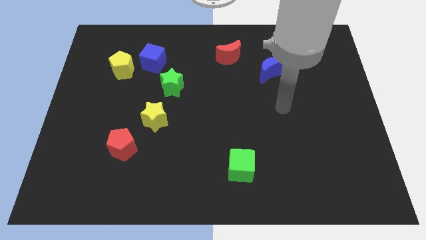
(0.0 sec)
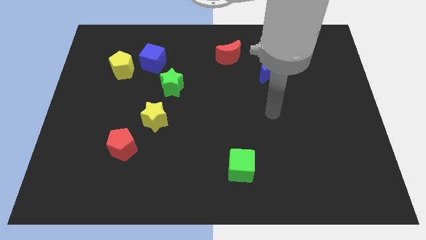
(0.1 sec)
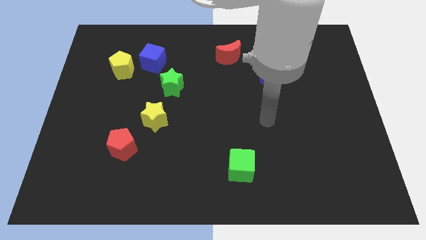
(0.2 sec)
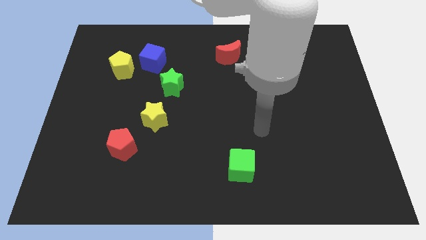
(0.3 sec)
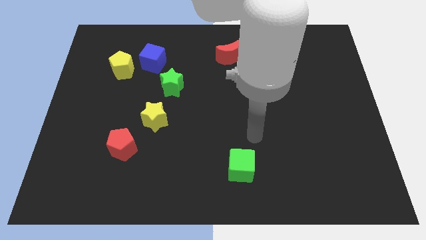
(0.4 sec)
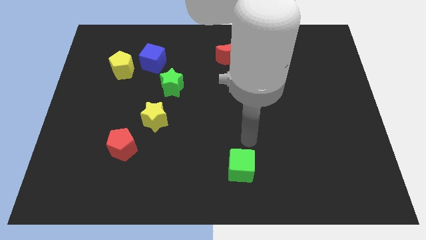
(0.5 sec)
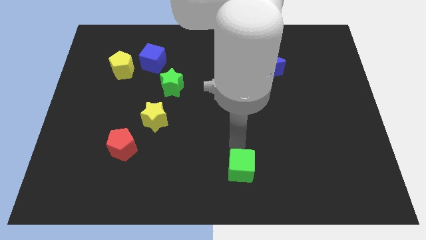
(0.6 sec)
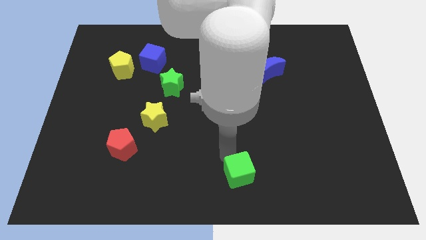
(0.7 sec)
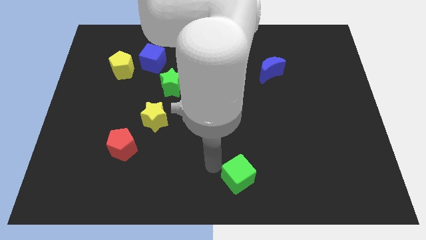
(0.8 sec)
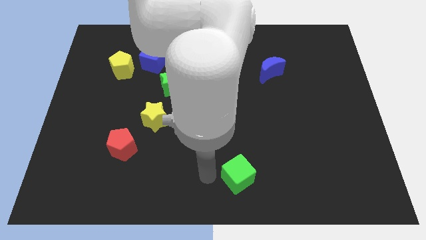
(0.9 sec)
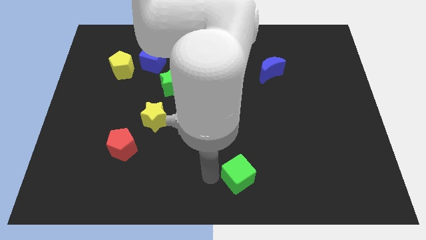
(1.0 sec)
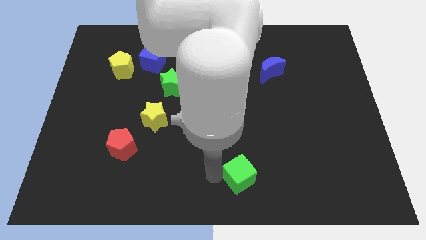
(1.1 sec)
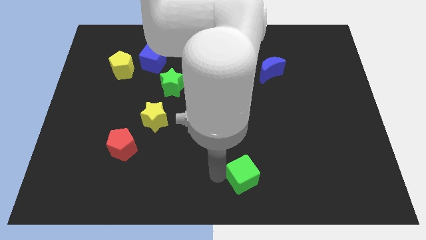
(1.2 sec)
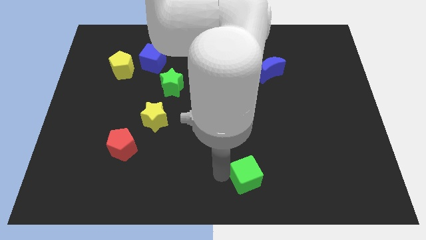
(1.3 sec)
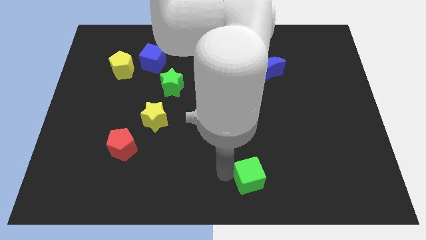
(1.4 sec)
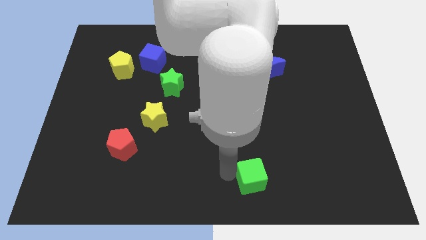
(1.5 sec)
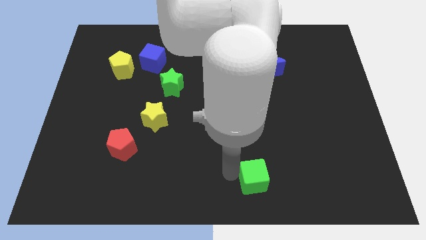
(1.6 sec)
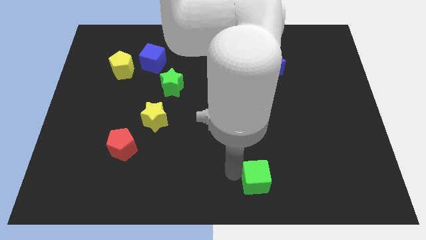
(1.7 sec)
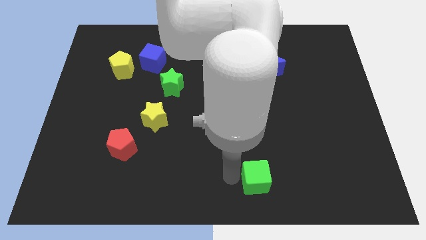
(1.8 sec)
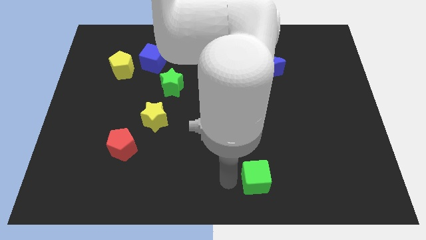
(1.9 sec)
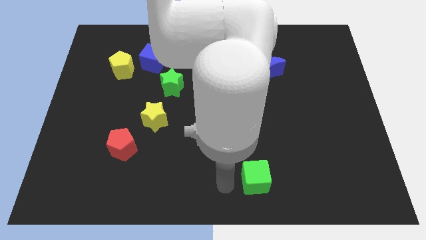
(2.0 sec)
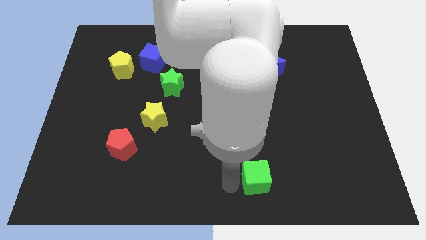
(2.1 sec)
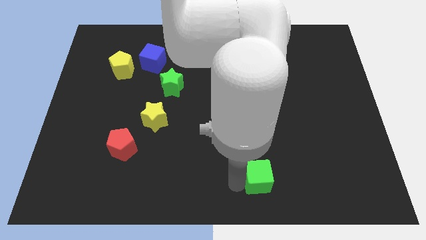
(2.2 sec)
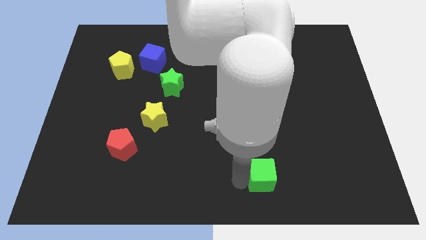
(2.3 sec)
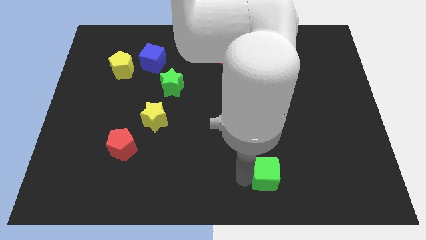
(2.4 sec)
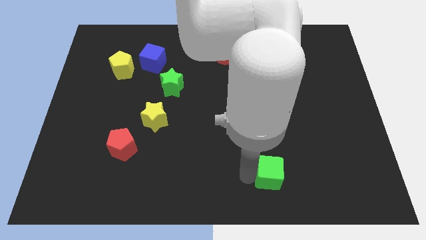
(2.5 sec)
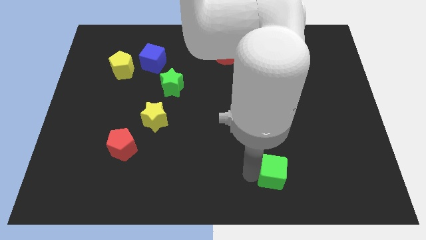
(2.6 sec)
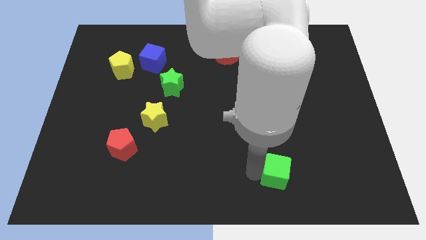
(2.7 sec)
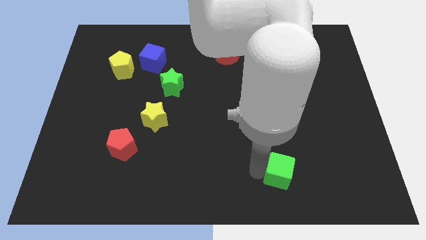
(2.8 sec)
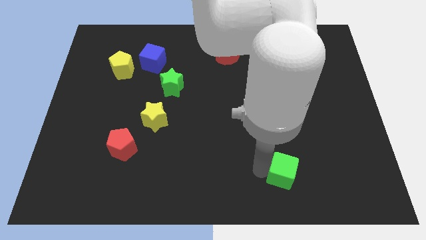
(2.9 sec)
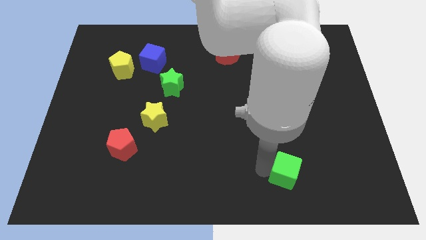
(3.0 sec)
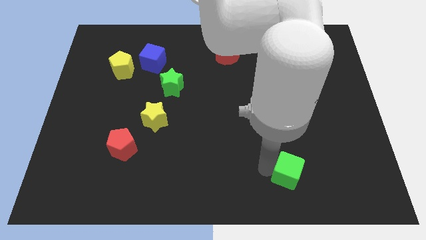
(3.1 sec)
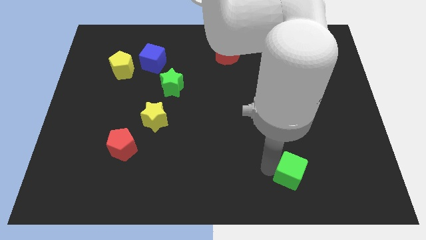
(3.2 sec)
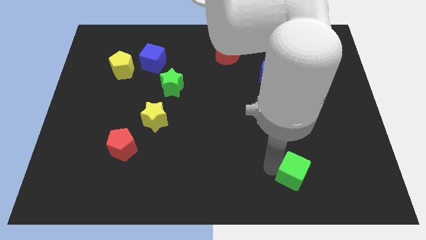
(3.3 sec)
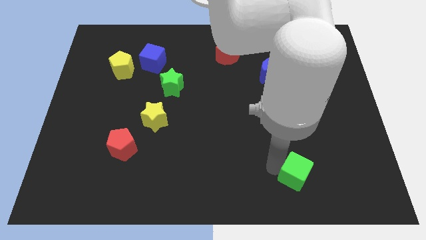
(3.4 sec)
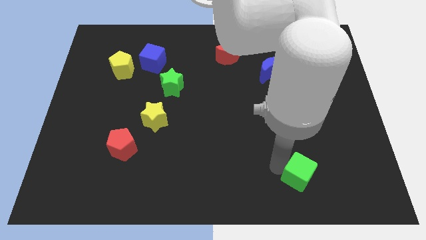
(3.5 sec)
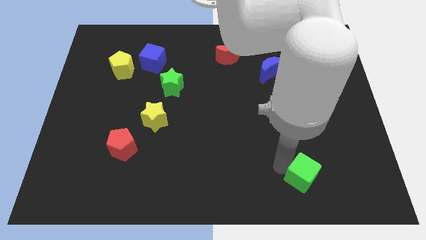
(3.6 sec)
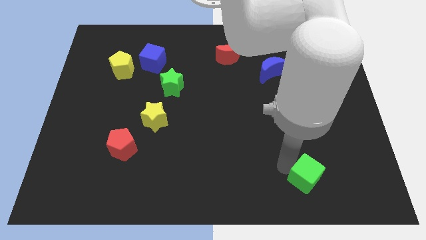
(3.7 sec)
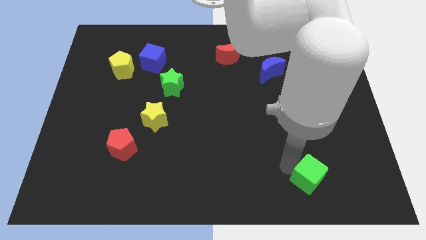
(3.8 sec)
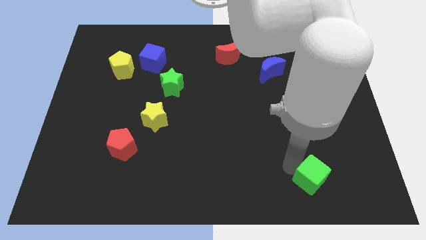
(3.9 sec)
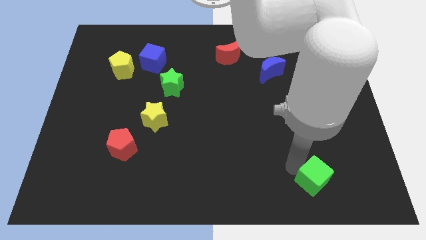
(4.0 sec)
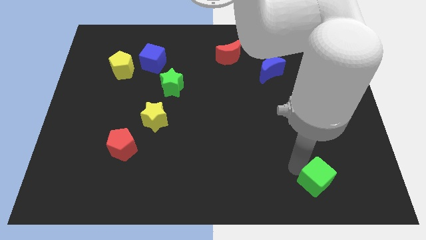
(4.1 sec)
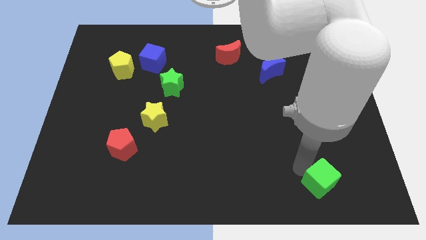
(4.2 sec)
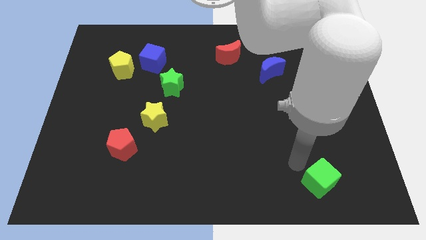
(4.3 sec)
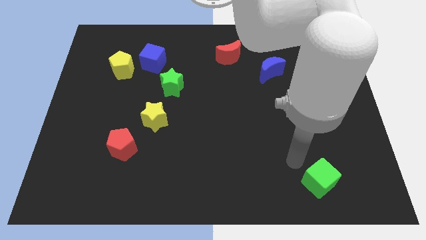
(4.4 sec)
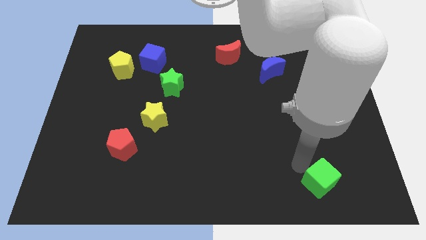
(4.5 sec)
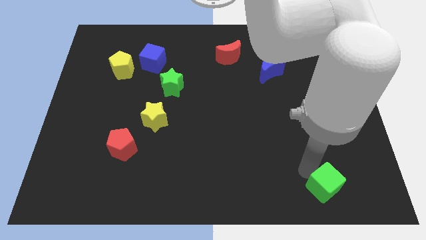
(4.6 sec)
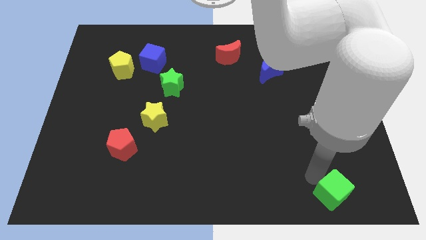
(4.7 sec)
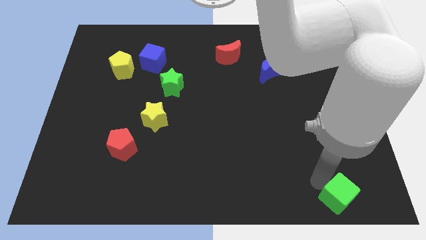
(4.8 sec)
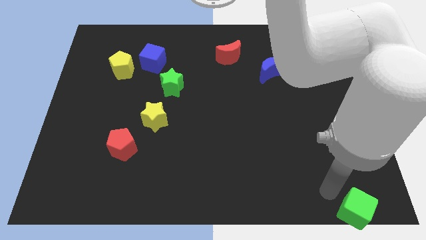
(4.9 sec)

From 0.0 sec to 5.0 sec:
put the green cube to the bottom right of the board

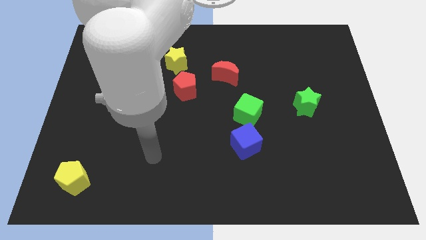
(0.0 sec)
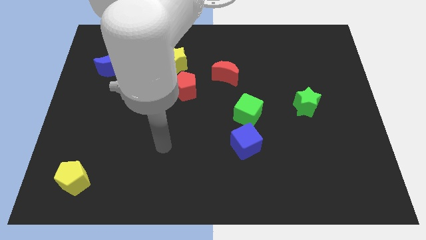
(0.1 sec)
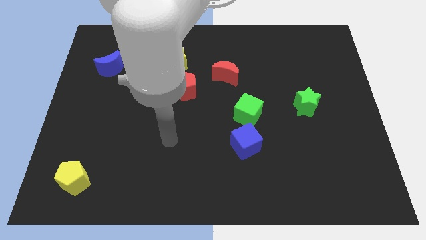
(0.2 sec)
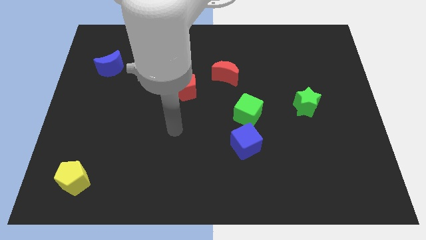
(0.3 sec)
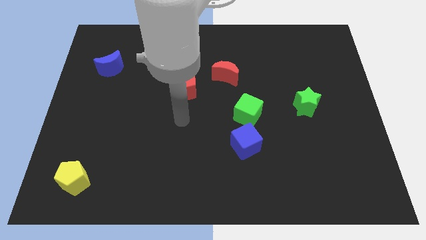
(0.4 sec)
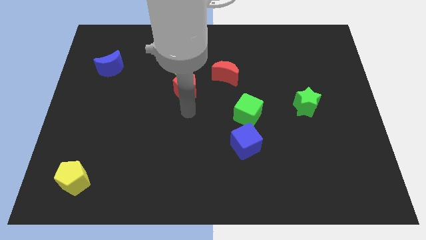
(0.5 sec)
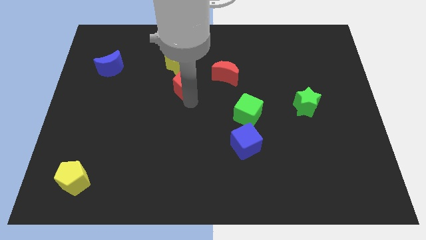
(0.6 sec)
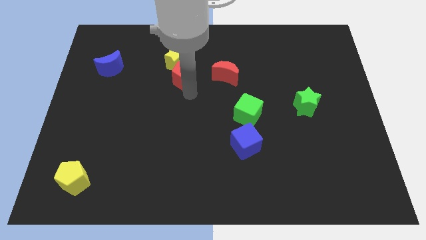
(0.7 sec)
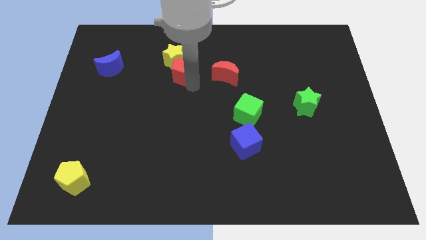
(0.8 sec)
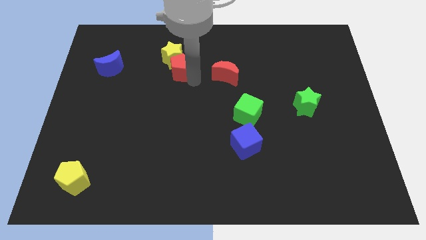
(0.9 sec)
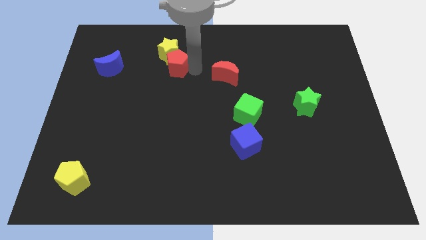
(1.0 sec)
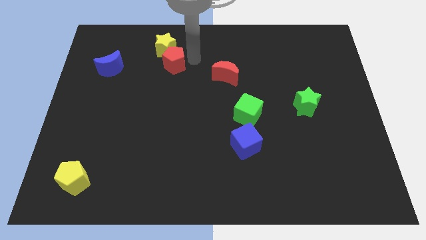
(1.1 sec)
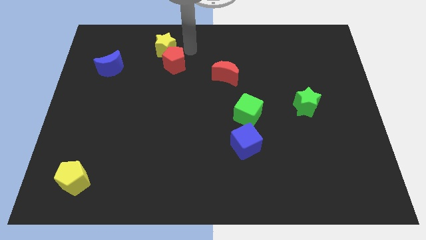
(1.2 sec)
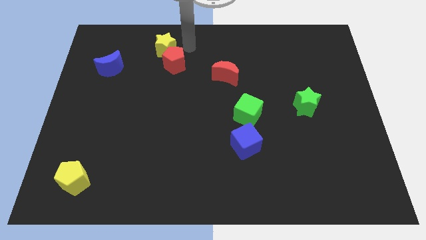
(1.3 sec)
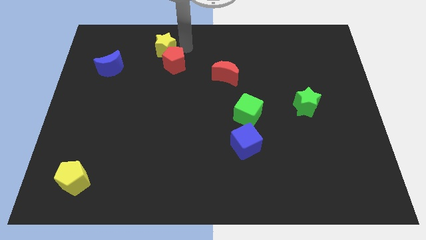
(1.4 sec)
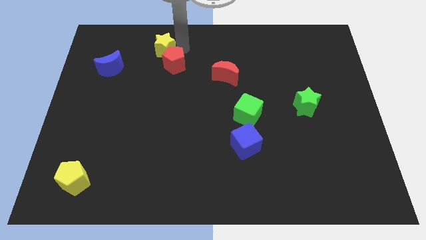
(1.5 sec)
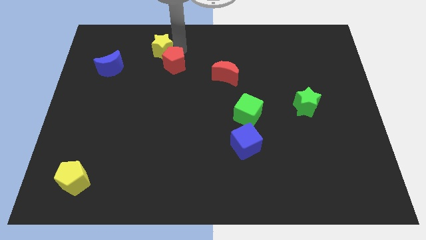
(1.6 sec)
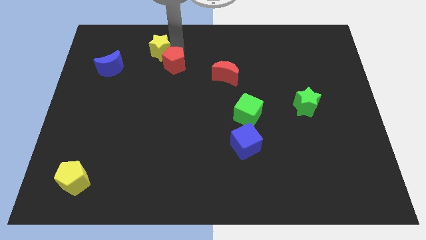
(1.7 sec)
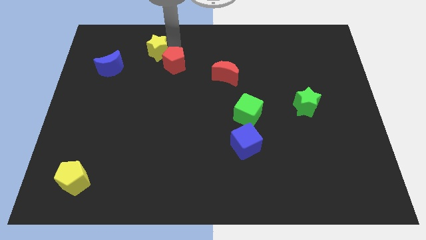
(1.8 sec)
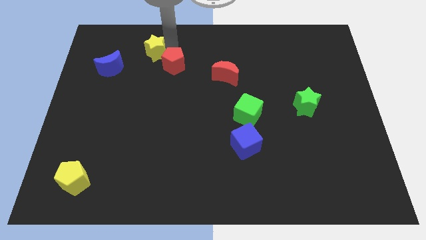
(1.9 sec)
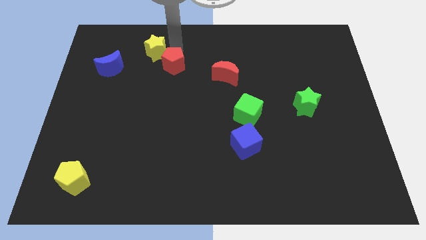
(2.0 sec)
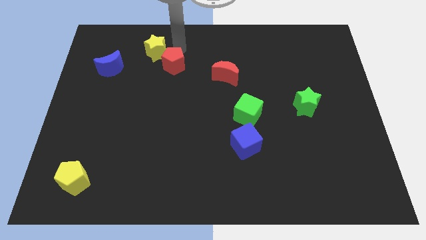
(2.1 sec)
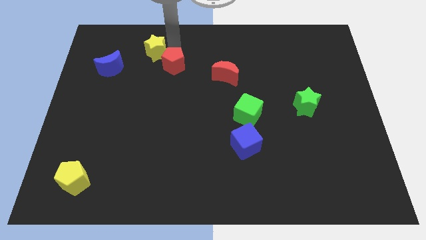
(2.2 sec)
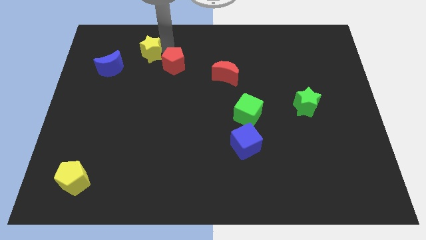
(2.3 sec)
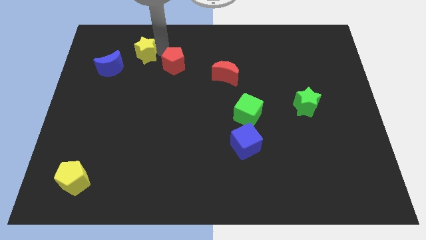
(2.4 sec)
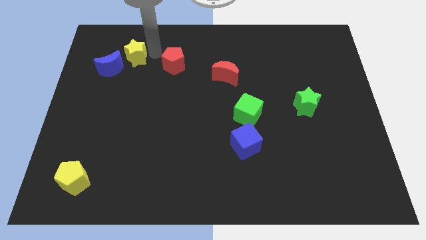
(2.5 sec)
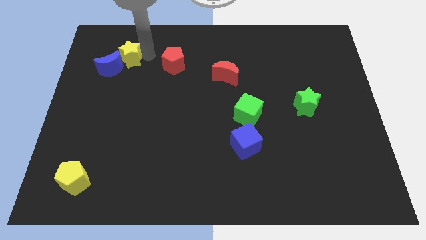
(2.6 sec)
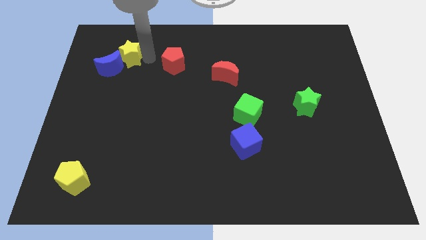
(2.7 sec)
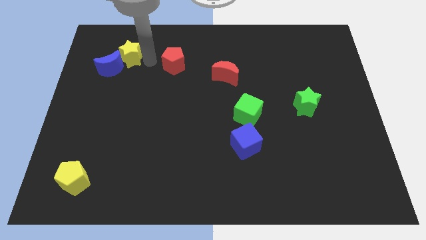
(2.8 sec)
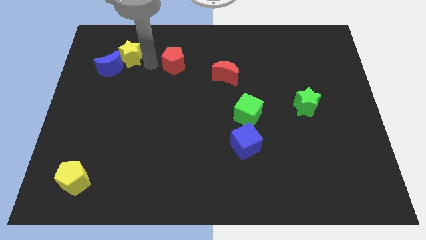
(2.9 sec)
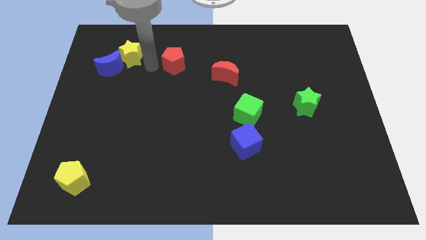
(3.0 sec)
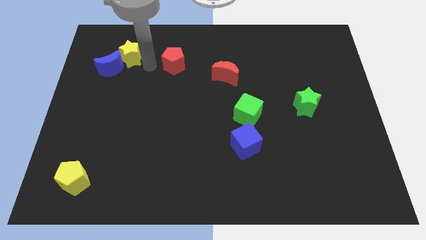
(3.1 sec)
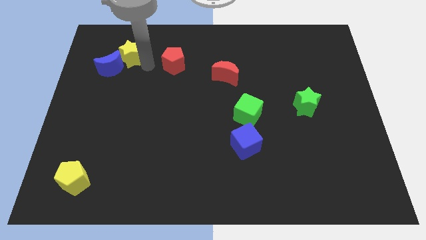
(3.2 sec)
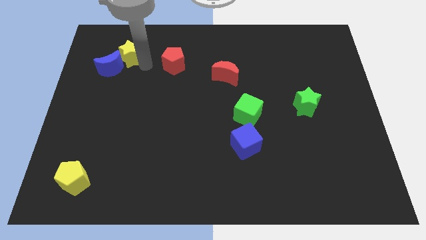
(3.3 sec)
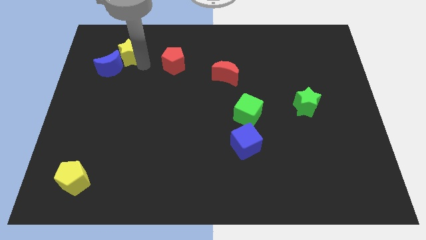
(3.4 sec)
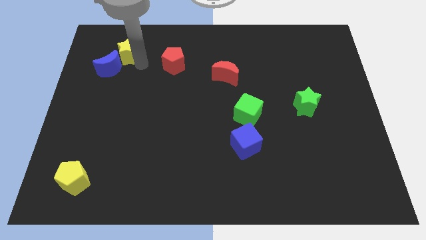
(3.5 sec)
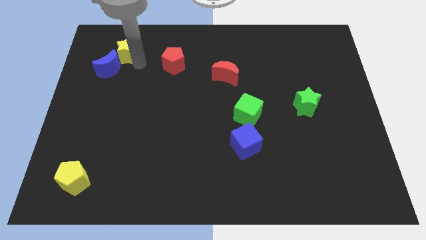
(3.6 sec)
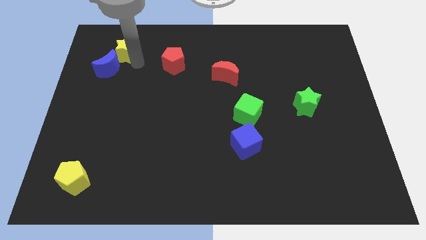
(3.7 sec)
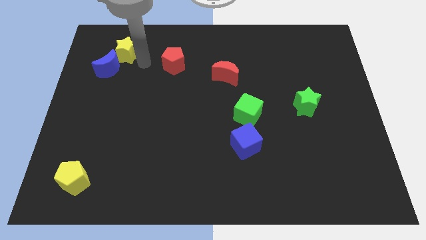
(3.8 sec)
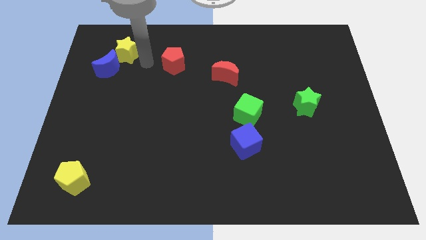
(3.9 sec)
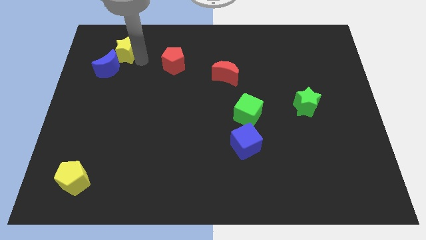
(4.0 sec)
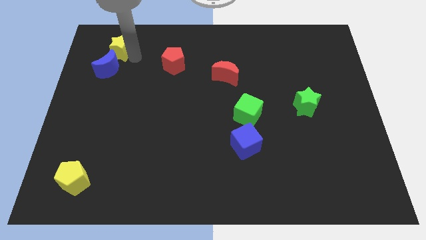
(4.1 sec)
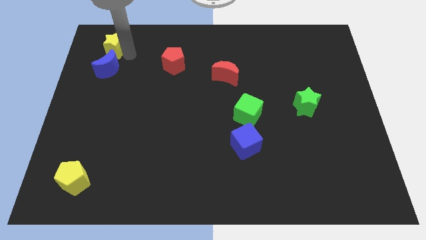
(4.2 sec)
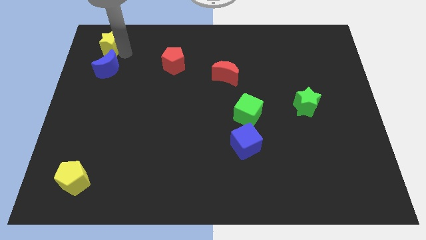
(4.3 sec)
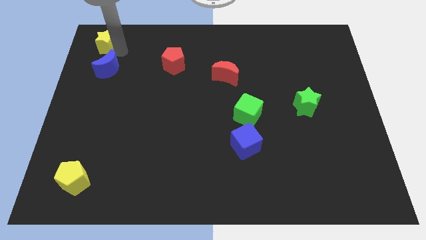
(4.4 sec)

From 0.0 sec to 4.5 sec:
put the yellow star to the upper left corner
